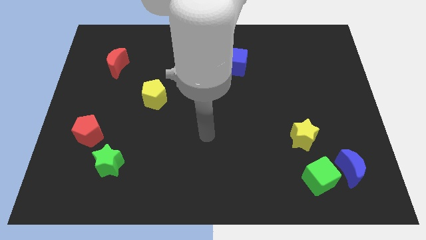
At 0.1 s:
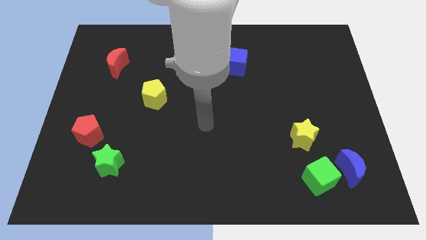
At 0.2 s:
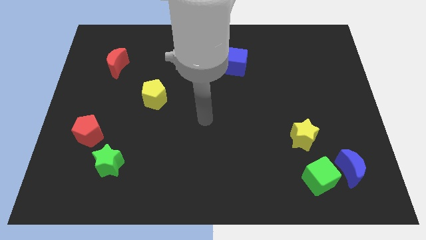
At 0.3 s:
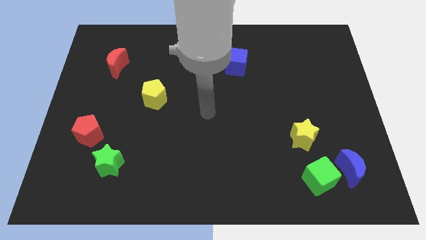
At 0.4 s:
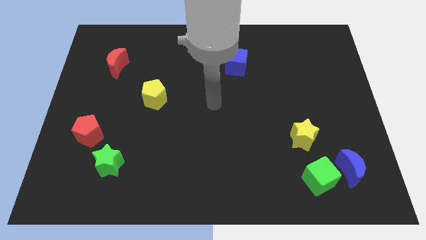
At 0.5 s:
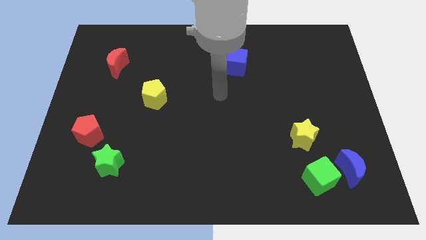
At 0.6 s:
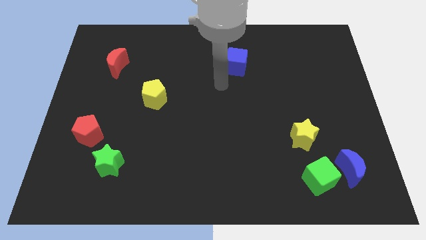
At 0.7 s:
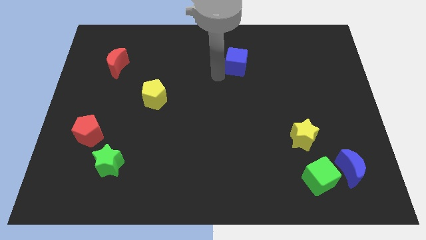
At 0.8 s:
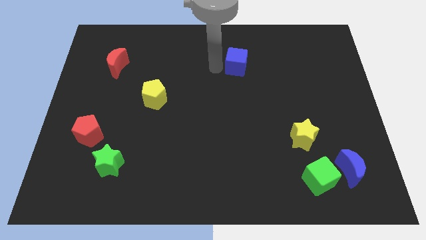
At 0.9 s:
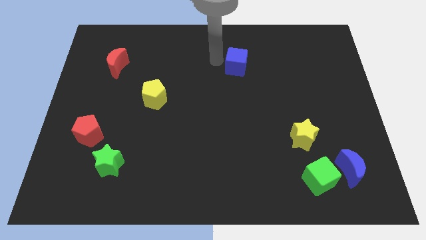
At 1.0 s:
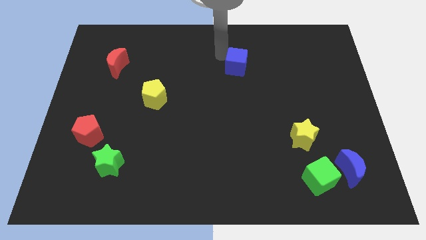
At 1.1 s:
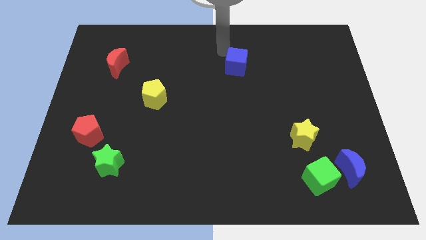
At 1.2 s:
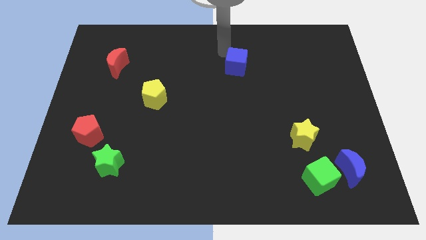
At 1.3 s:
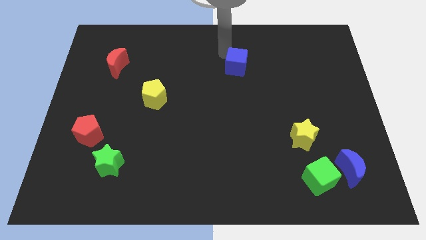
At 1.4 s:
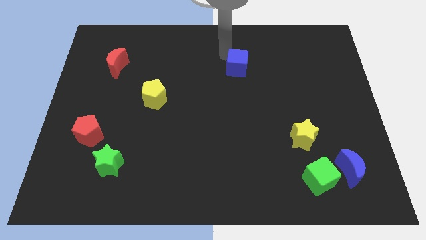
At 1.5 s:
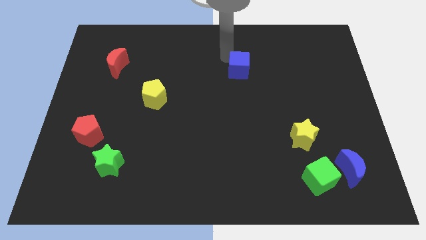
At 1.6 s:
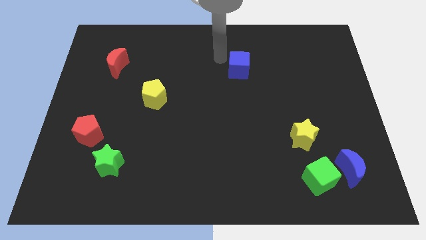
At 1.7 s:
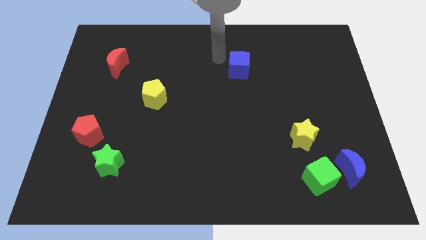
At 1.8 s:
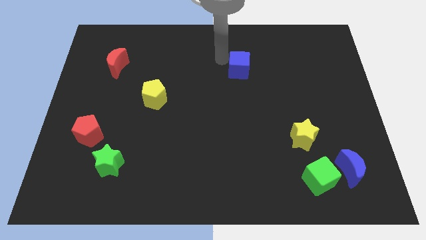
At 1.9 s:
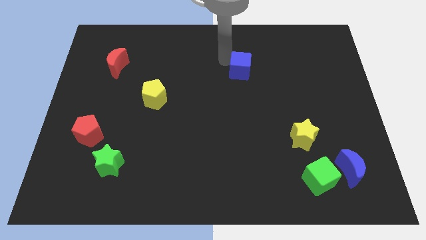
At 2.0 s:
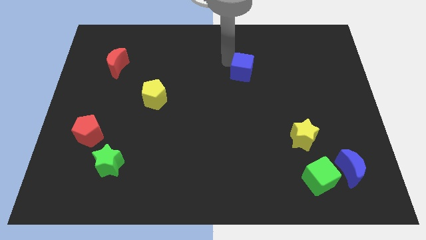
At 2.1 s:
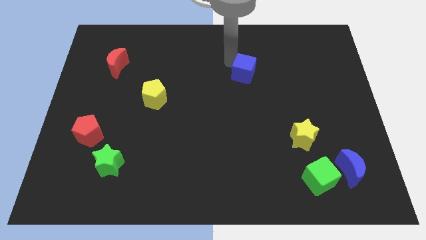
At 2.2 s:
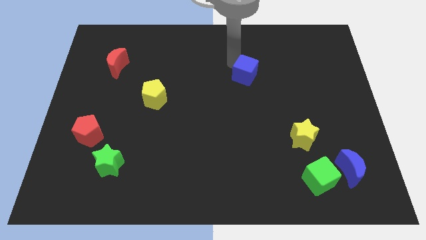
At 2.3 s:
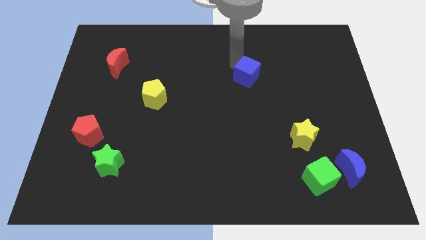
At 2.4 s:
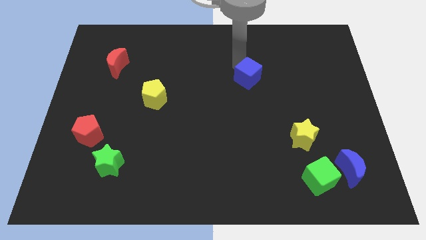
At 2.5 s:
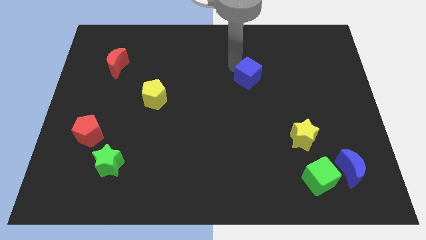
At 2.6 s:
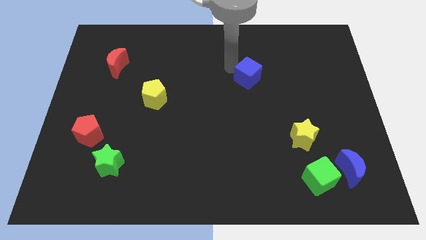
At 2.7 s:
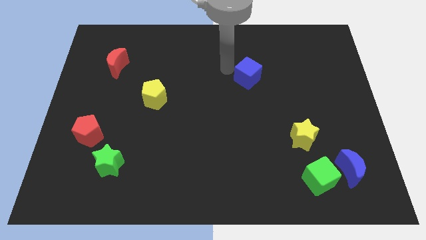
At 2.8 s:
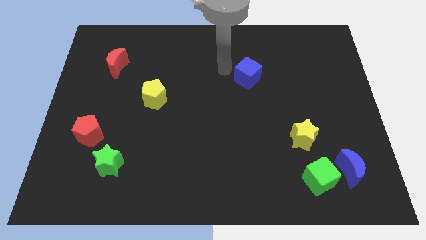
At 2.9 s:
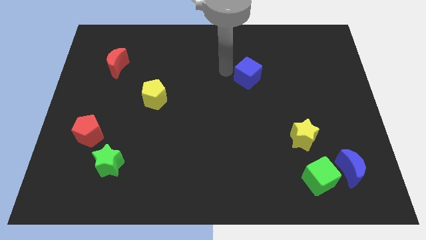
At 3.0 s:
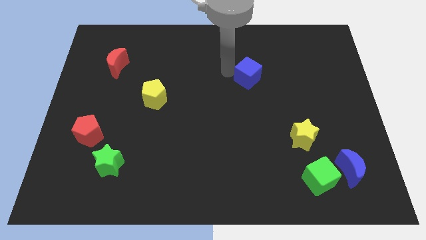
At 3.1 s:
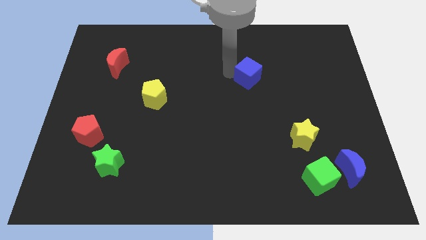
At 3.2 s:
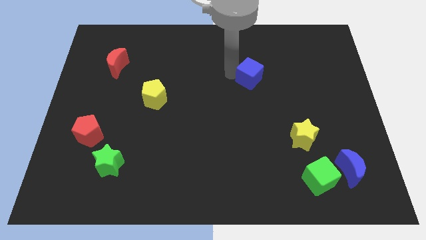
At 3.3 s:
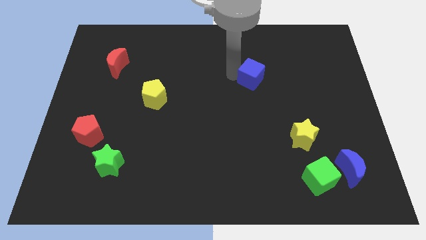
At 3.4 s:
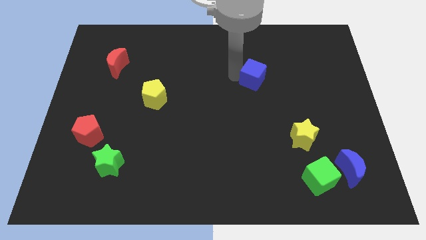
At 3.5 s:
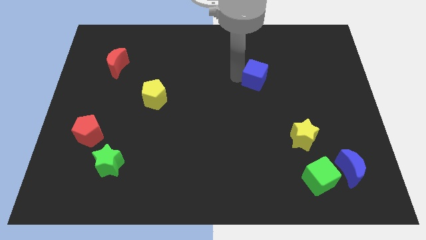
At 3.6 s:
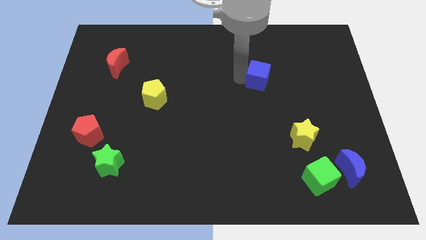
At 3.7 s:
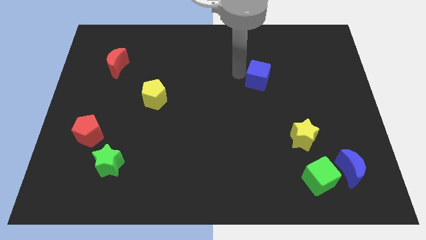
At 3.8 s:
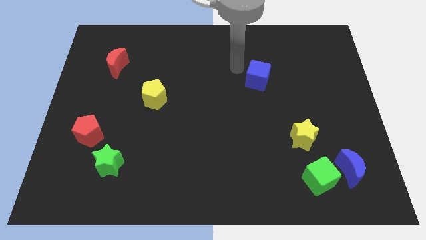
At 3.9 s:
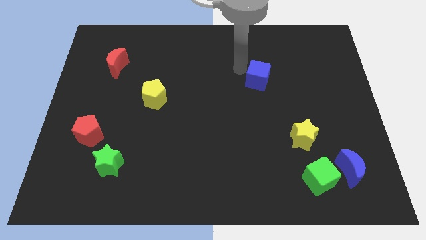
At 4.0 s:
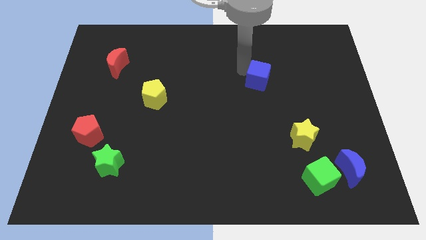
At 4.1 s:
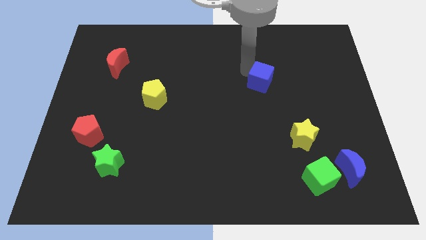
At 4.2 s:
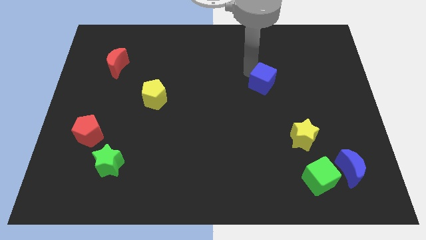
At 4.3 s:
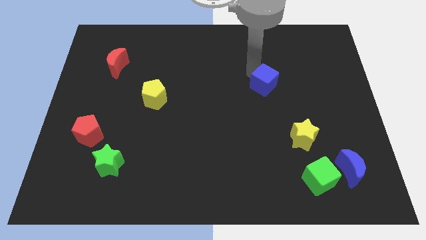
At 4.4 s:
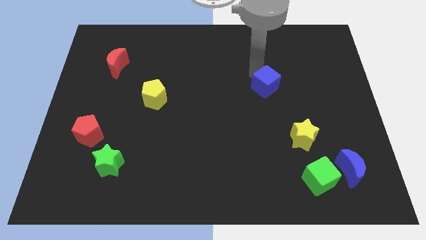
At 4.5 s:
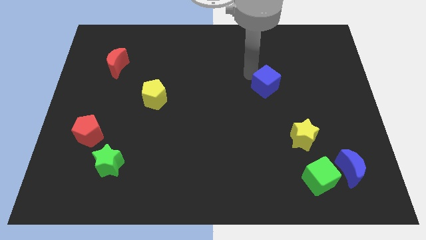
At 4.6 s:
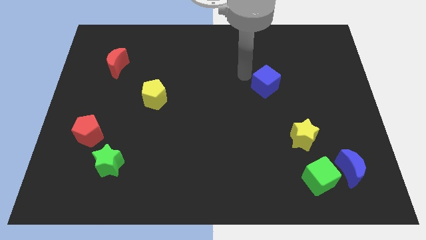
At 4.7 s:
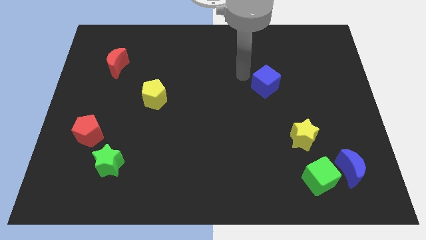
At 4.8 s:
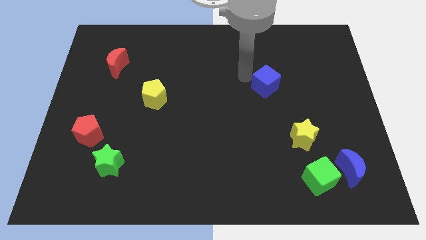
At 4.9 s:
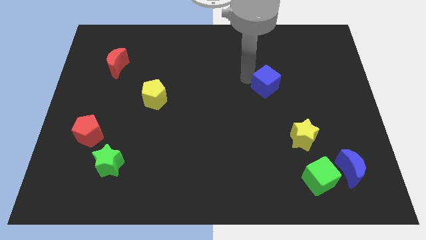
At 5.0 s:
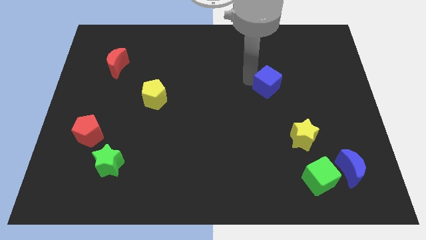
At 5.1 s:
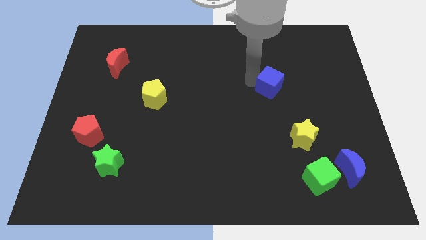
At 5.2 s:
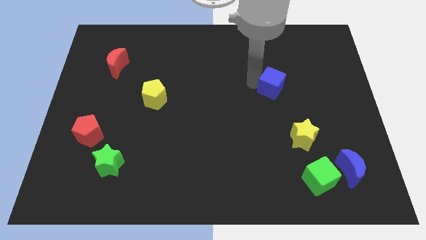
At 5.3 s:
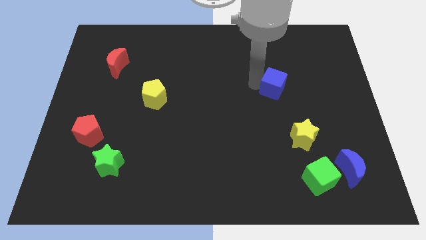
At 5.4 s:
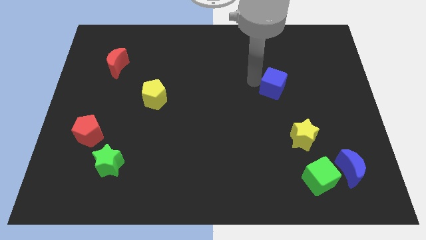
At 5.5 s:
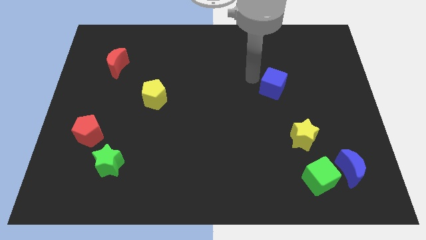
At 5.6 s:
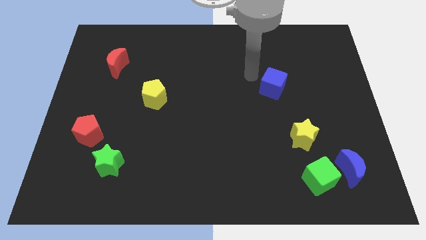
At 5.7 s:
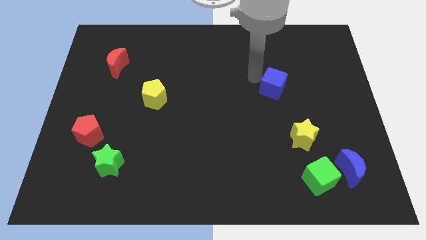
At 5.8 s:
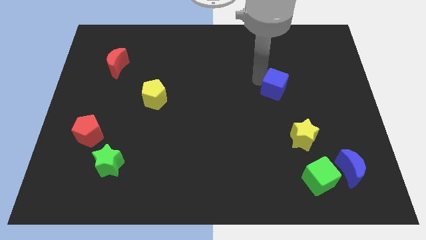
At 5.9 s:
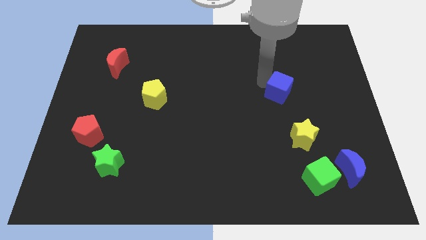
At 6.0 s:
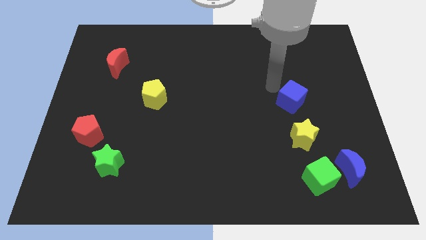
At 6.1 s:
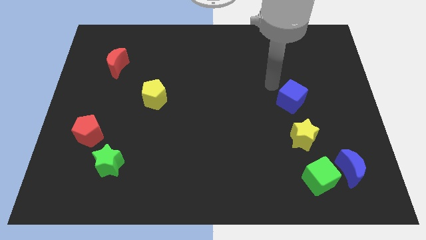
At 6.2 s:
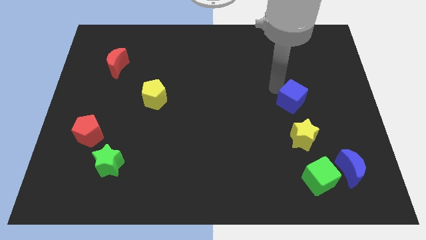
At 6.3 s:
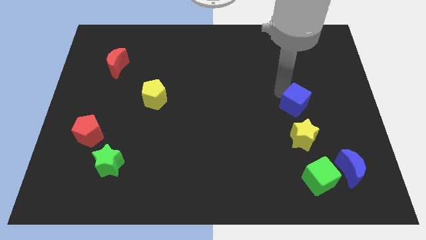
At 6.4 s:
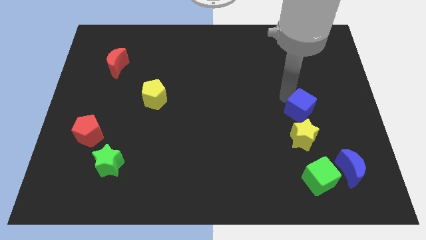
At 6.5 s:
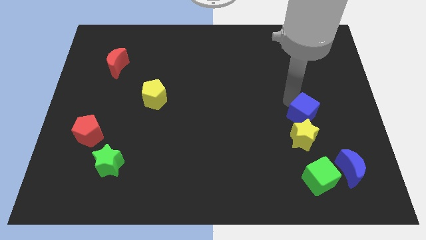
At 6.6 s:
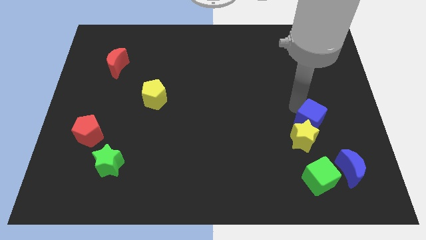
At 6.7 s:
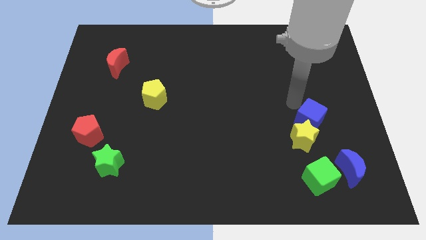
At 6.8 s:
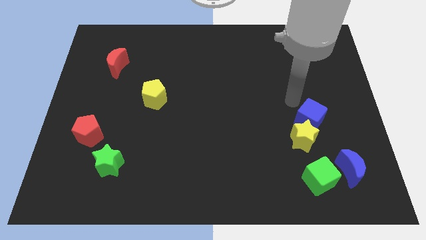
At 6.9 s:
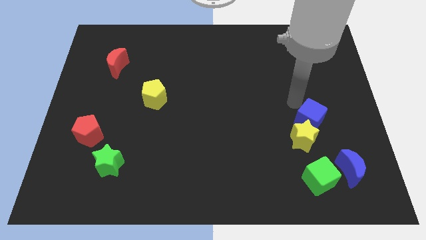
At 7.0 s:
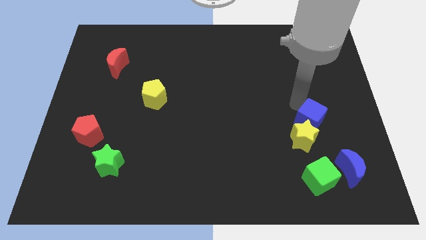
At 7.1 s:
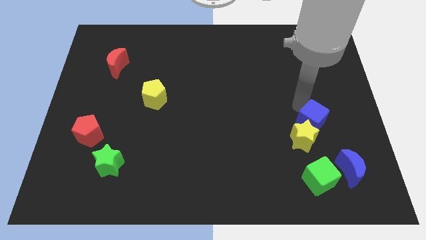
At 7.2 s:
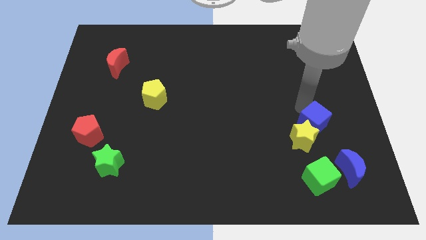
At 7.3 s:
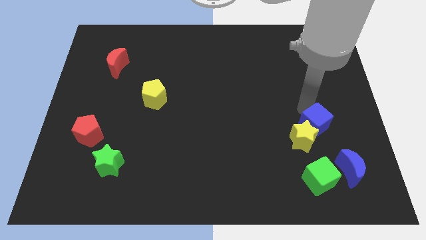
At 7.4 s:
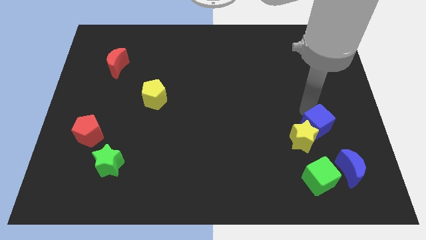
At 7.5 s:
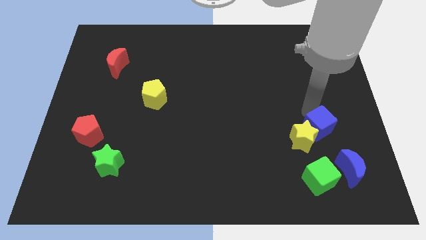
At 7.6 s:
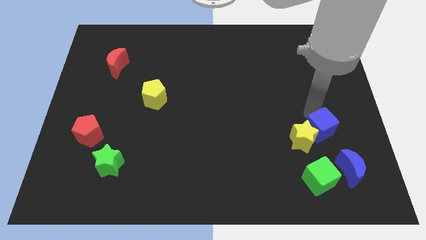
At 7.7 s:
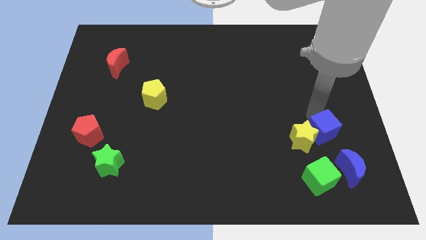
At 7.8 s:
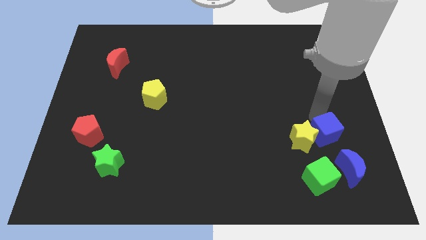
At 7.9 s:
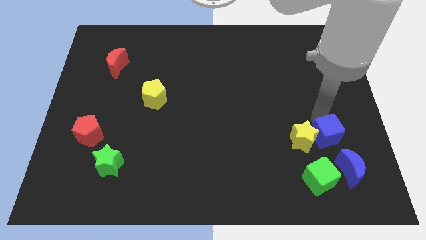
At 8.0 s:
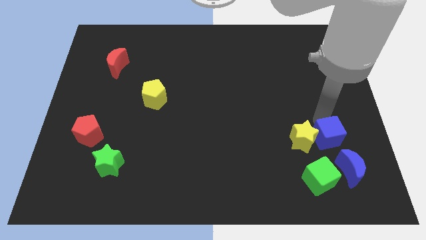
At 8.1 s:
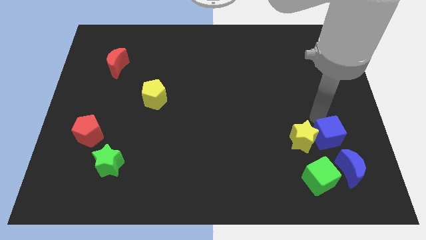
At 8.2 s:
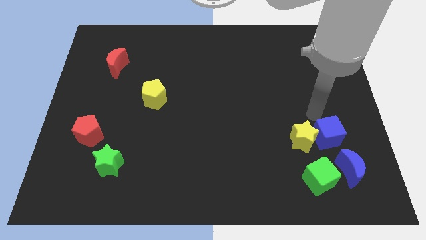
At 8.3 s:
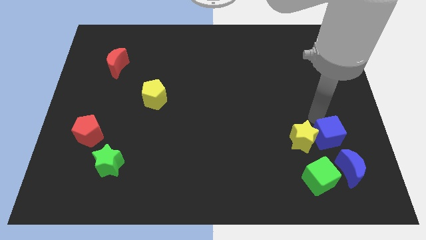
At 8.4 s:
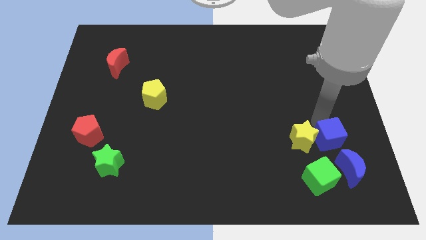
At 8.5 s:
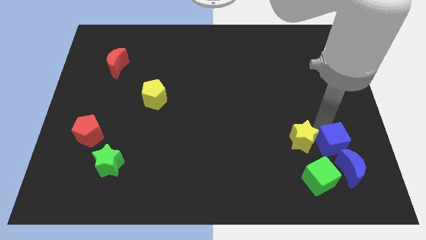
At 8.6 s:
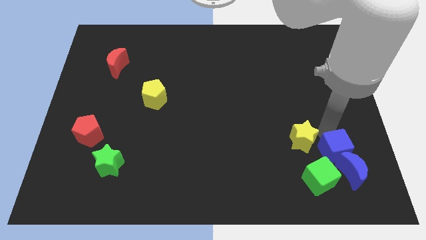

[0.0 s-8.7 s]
slide the blue cube next to the blue moon
